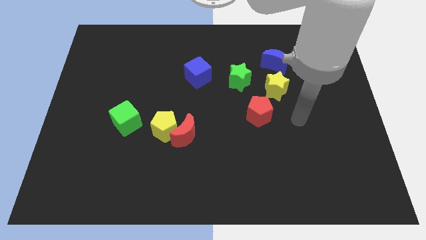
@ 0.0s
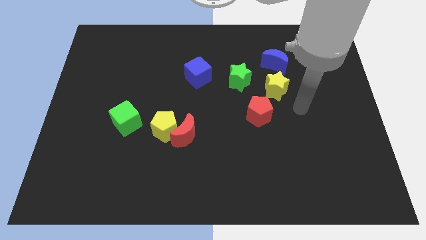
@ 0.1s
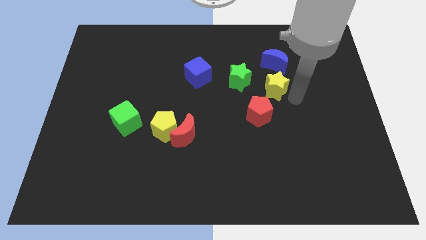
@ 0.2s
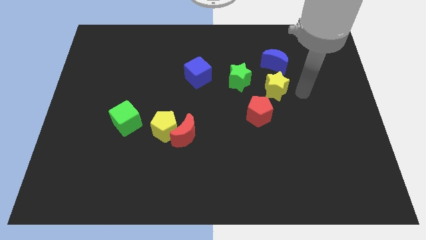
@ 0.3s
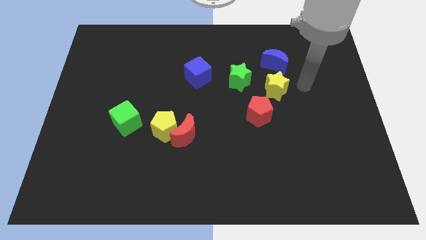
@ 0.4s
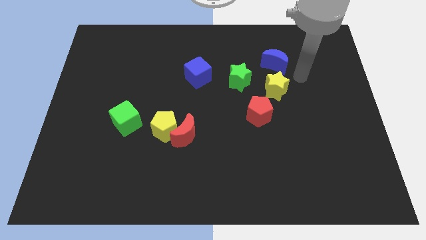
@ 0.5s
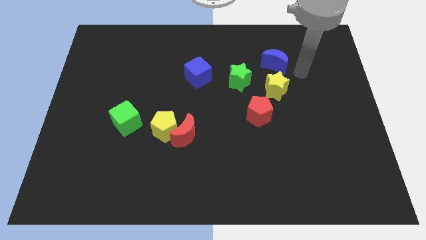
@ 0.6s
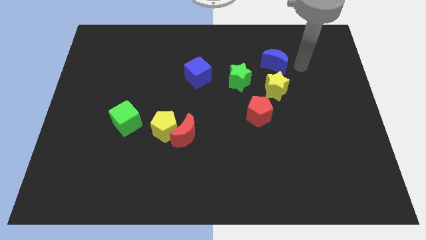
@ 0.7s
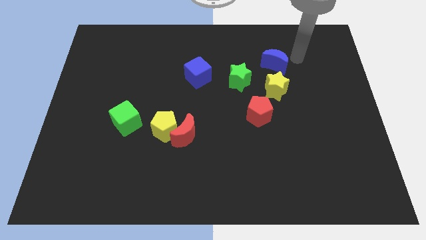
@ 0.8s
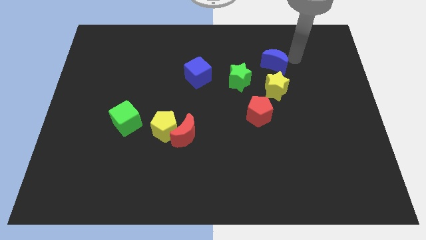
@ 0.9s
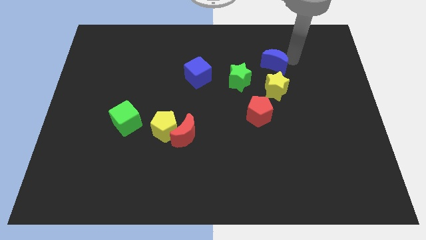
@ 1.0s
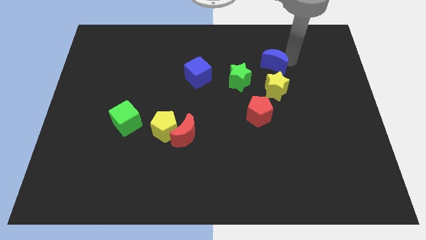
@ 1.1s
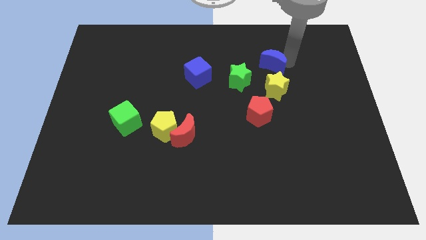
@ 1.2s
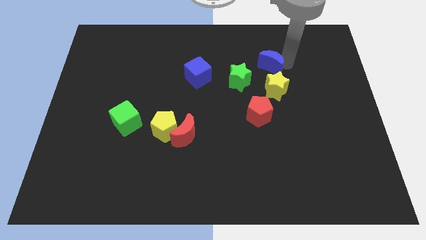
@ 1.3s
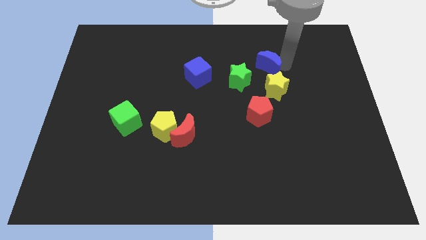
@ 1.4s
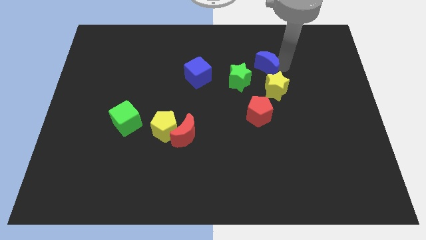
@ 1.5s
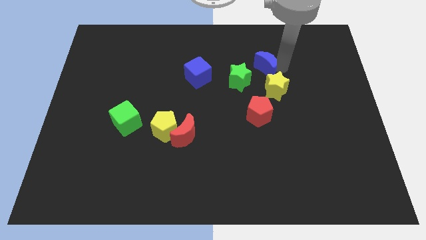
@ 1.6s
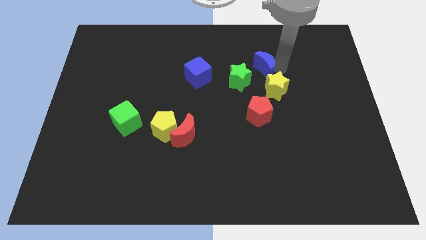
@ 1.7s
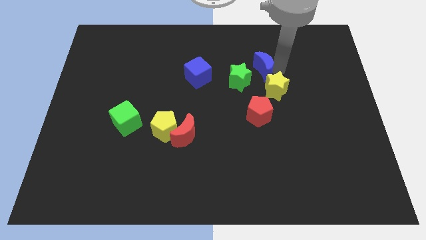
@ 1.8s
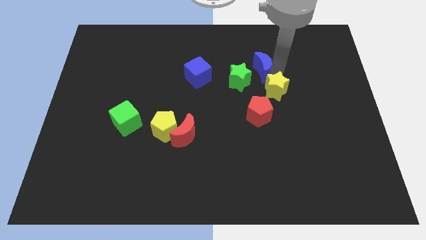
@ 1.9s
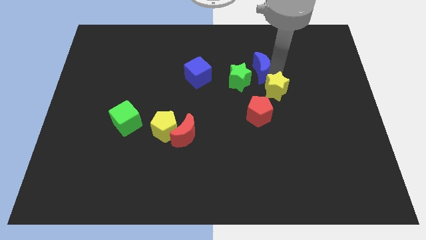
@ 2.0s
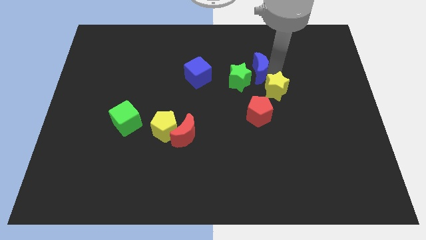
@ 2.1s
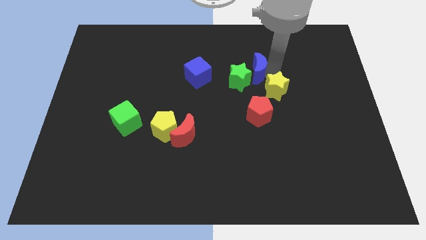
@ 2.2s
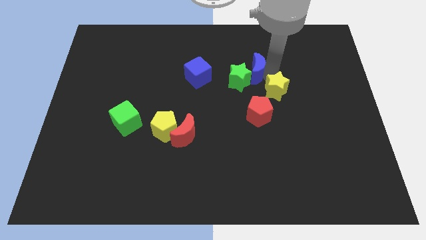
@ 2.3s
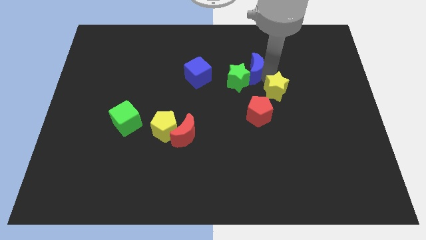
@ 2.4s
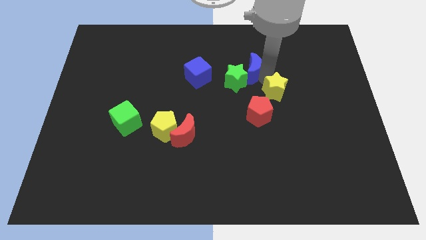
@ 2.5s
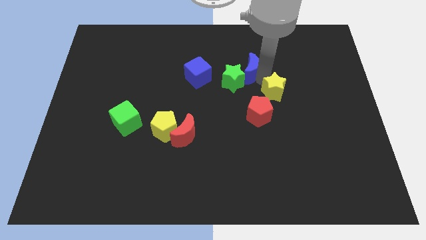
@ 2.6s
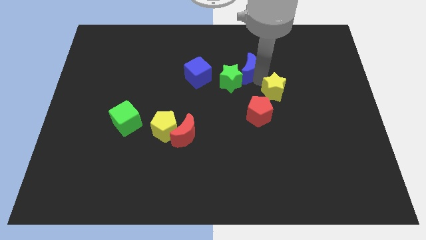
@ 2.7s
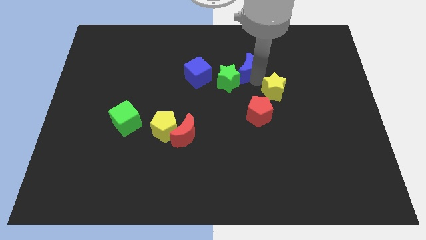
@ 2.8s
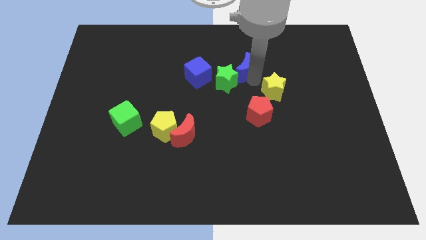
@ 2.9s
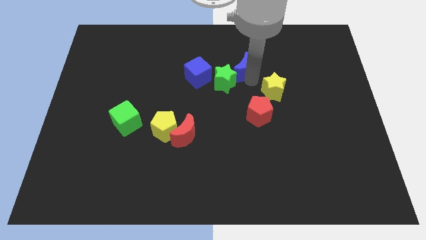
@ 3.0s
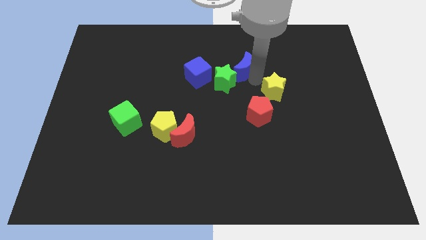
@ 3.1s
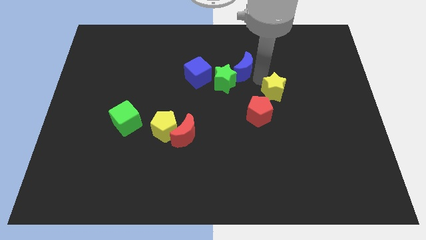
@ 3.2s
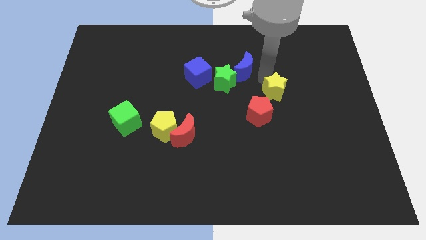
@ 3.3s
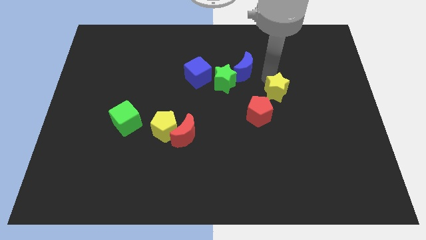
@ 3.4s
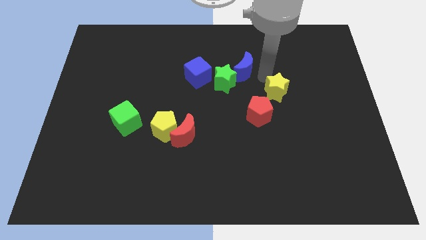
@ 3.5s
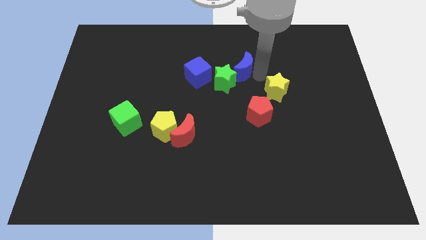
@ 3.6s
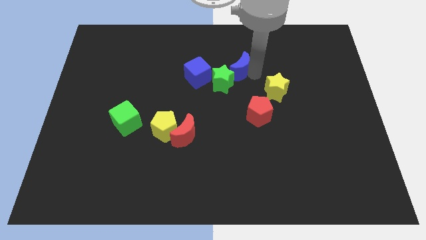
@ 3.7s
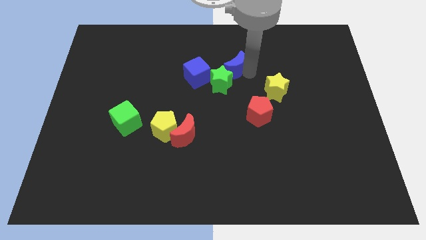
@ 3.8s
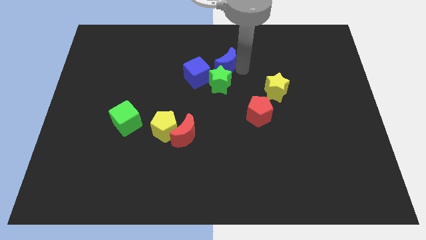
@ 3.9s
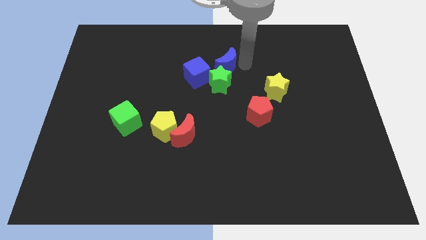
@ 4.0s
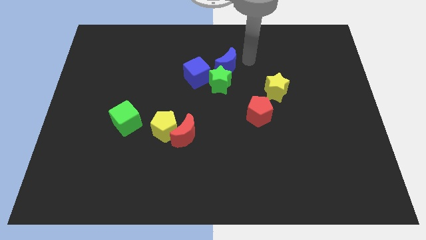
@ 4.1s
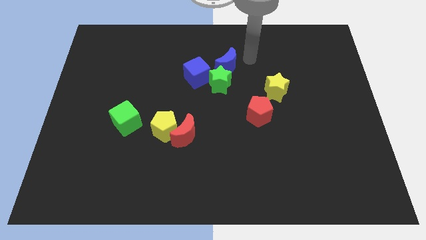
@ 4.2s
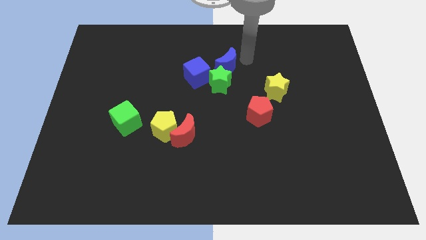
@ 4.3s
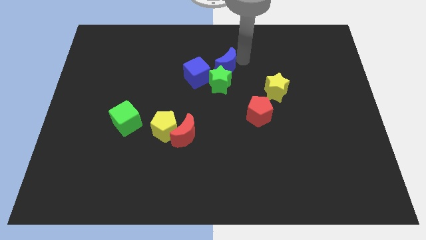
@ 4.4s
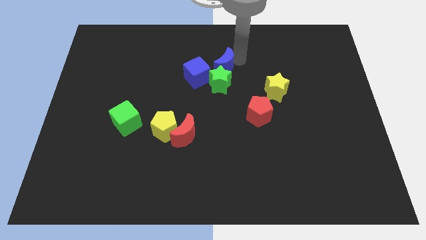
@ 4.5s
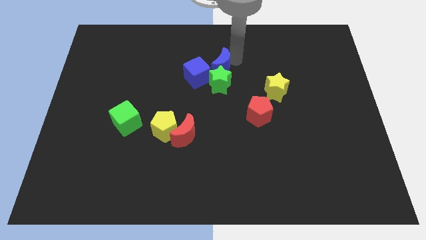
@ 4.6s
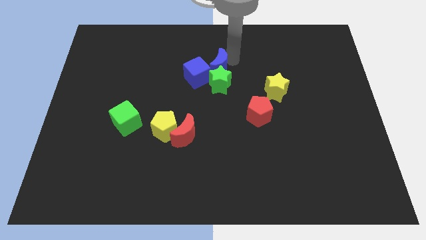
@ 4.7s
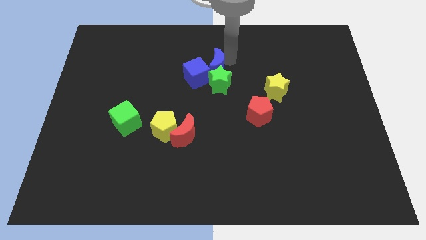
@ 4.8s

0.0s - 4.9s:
push the blue moon to the blue cube

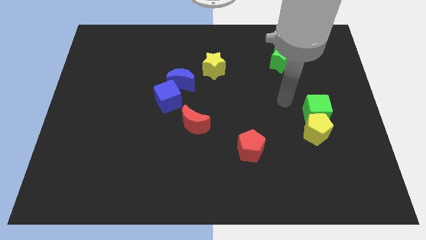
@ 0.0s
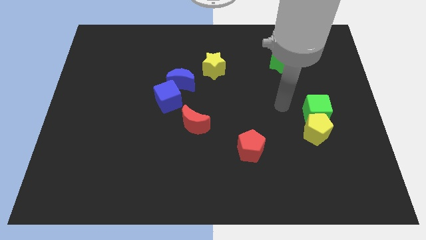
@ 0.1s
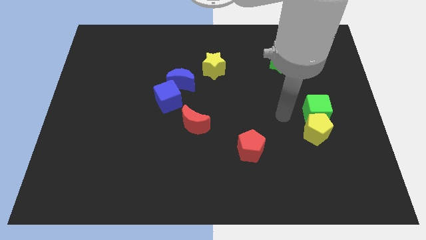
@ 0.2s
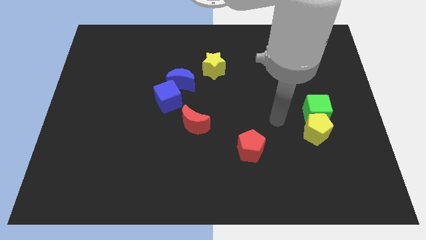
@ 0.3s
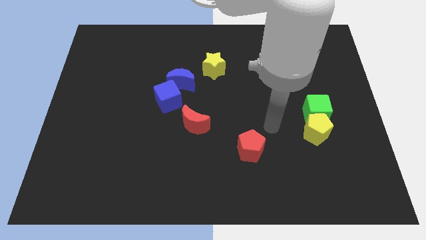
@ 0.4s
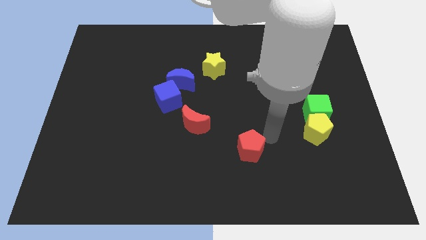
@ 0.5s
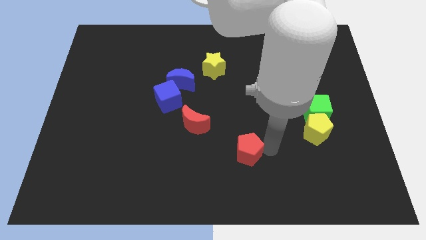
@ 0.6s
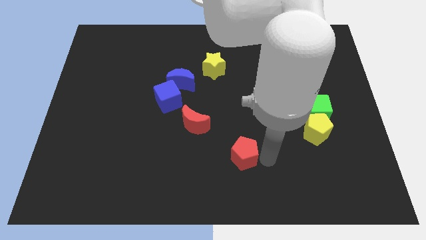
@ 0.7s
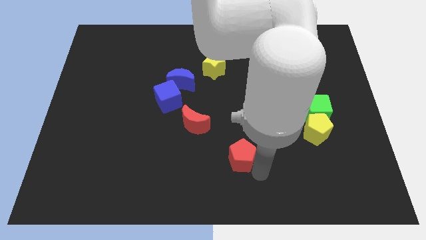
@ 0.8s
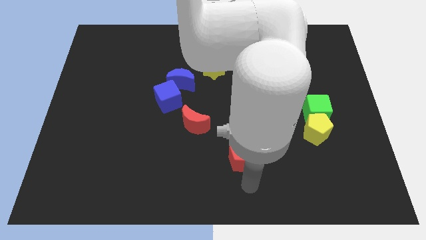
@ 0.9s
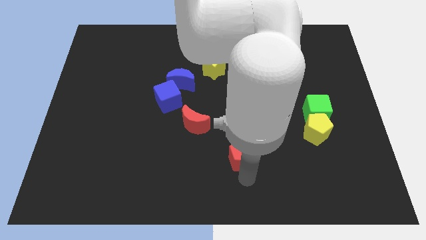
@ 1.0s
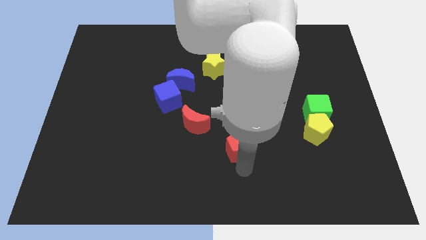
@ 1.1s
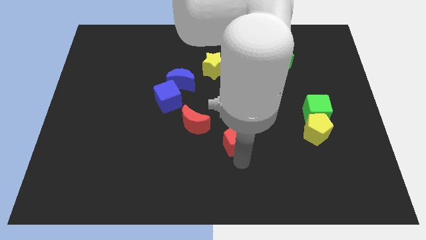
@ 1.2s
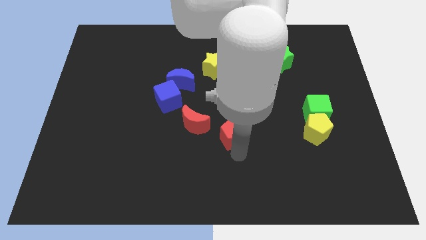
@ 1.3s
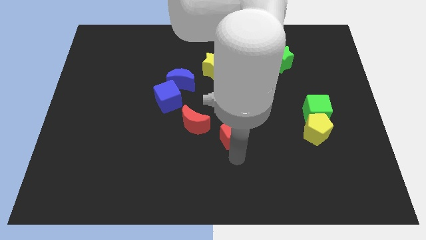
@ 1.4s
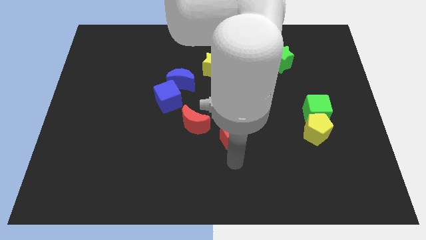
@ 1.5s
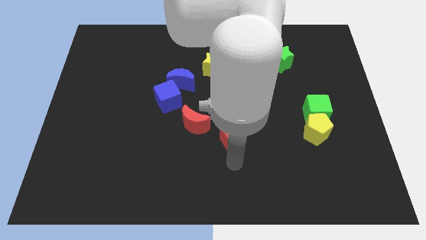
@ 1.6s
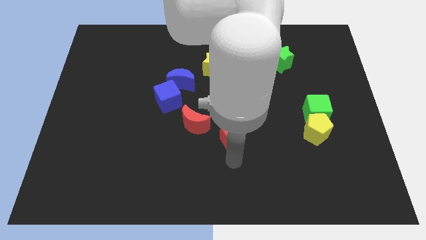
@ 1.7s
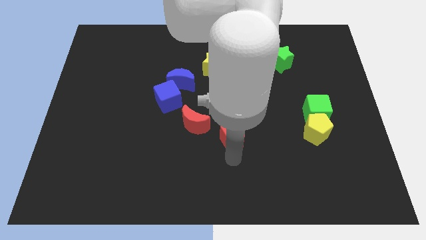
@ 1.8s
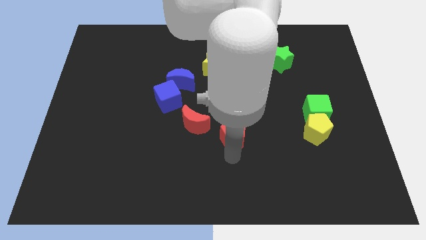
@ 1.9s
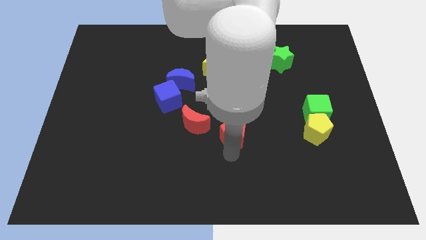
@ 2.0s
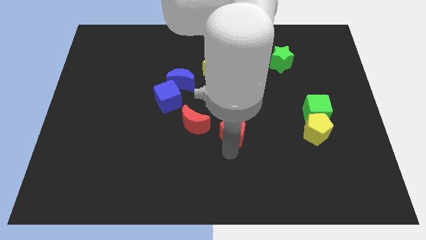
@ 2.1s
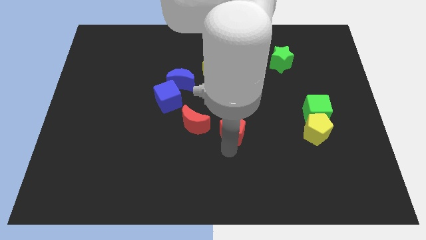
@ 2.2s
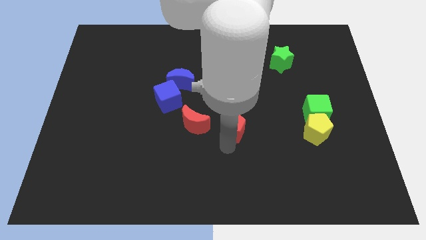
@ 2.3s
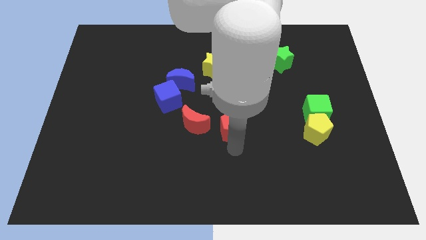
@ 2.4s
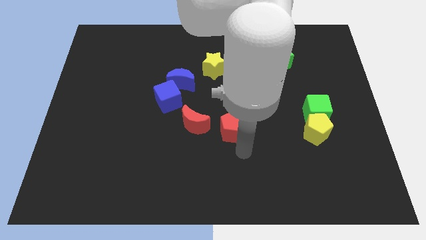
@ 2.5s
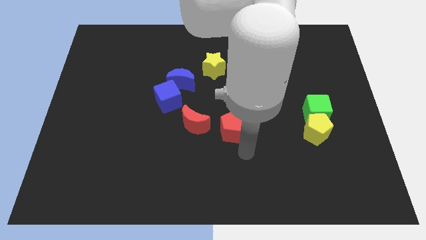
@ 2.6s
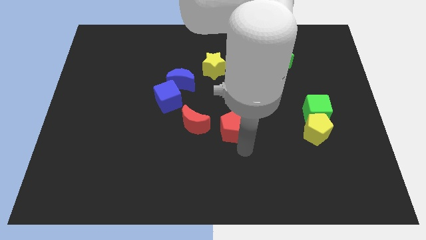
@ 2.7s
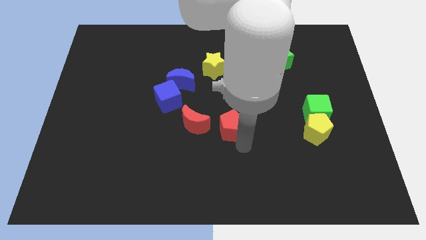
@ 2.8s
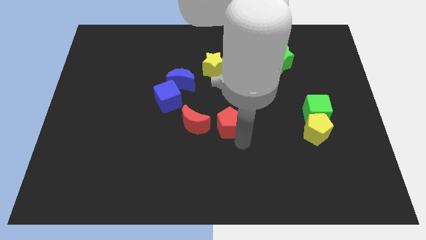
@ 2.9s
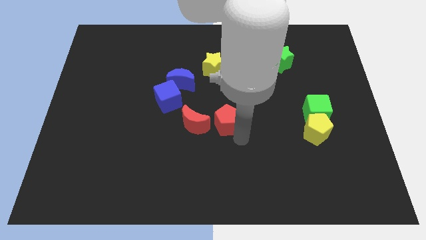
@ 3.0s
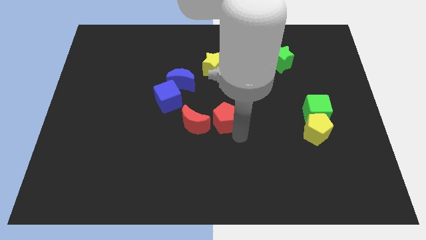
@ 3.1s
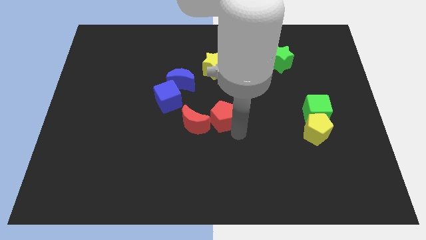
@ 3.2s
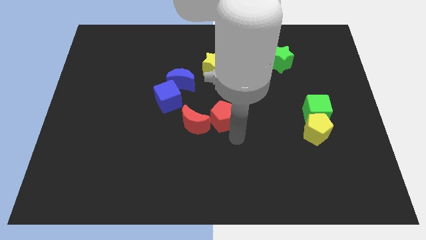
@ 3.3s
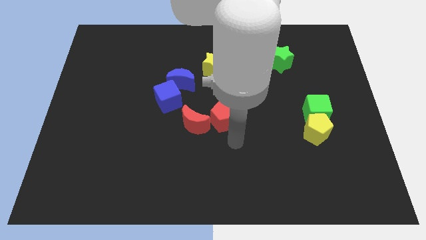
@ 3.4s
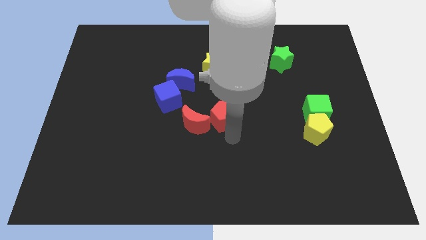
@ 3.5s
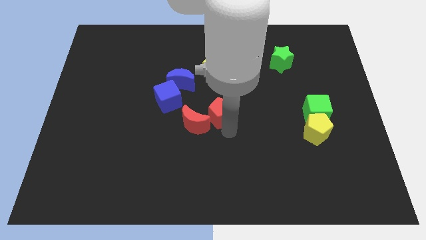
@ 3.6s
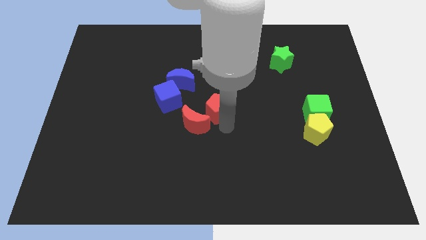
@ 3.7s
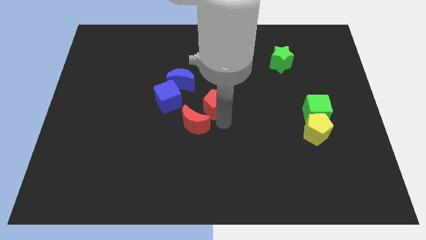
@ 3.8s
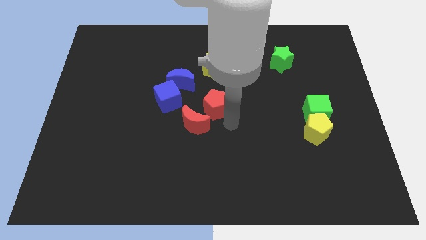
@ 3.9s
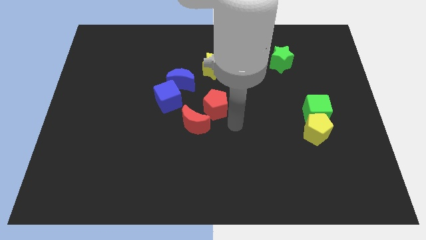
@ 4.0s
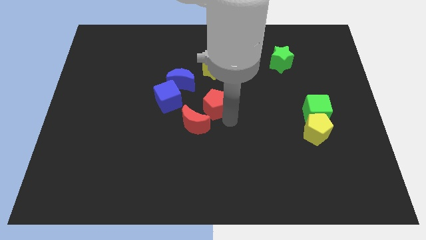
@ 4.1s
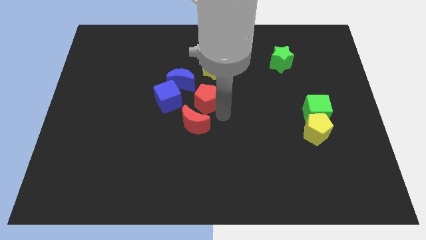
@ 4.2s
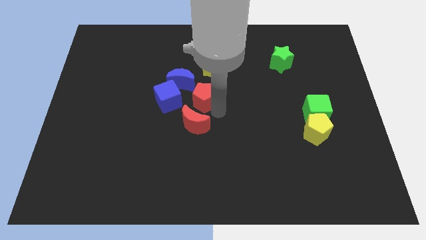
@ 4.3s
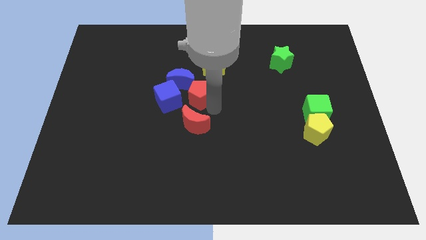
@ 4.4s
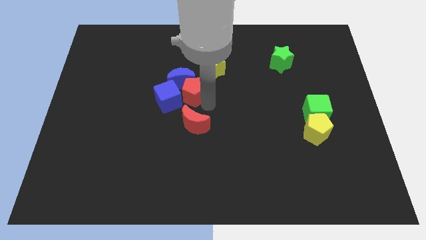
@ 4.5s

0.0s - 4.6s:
push the red pentagon close to the blue moon
